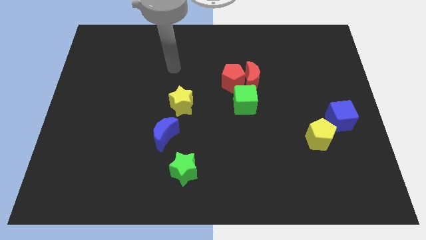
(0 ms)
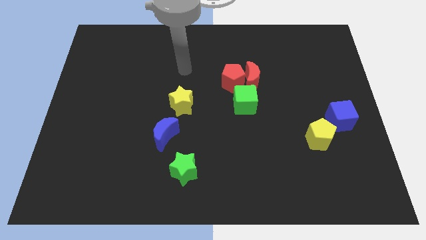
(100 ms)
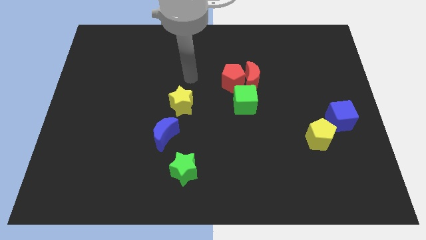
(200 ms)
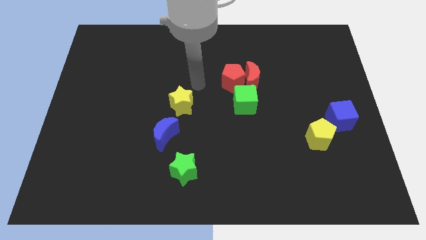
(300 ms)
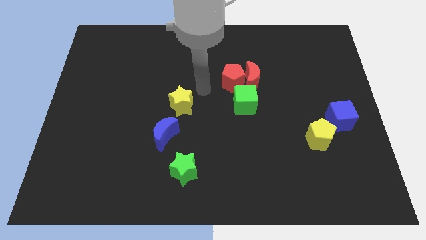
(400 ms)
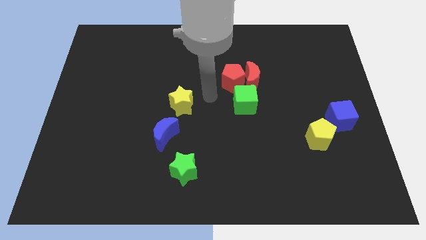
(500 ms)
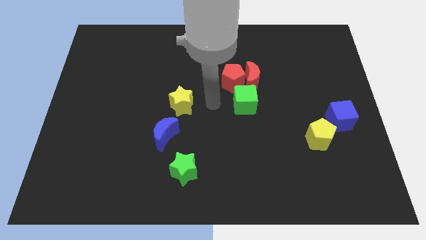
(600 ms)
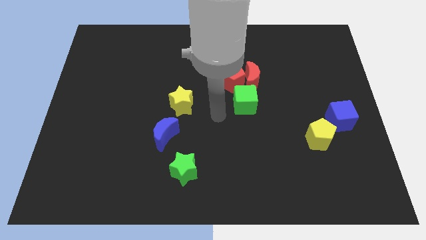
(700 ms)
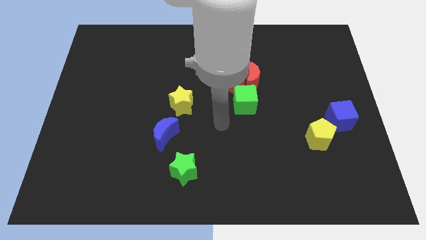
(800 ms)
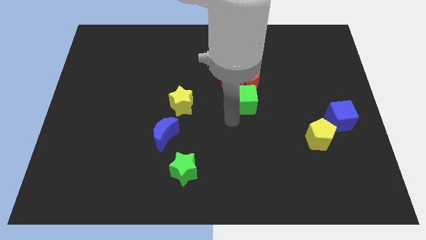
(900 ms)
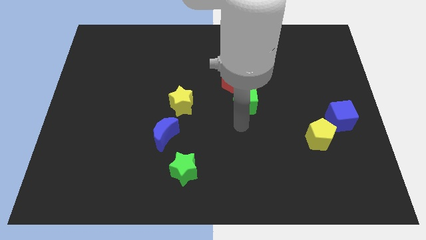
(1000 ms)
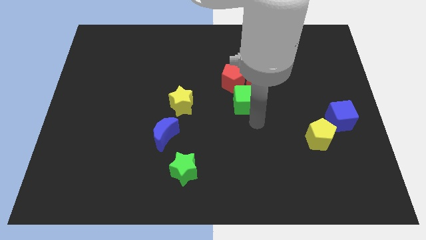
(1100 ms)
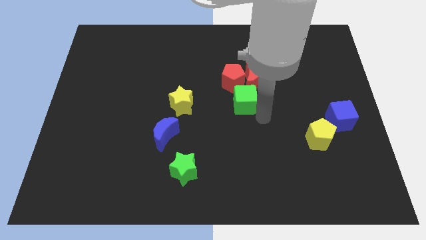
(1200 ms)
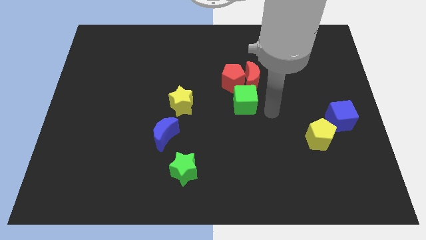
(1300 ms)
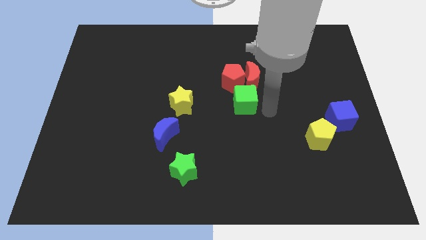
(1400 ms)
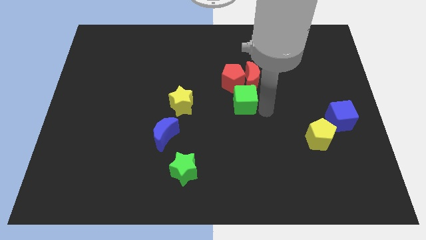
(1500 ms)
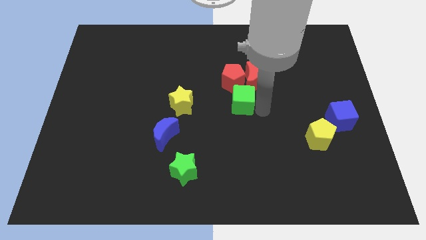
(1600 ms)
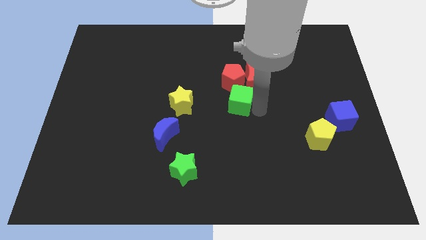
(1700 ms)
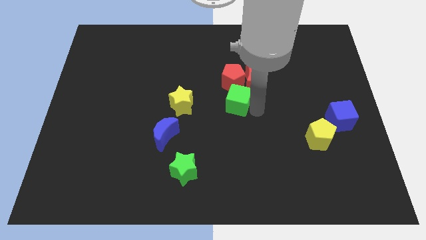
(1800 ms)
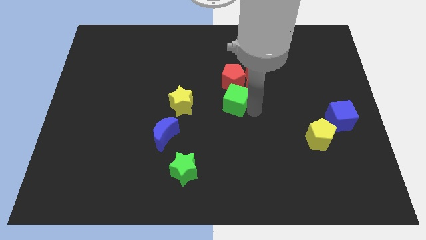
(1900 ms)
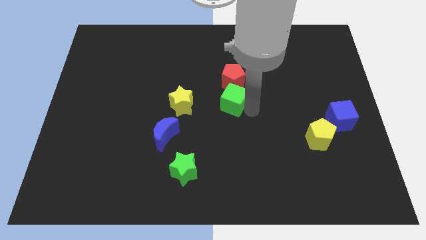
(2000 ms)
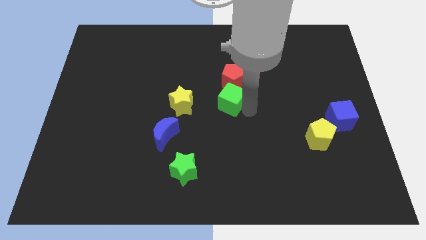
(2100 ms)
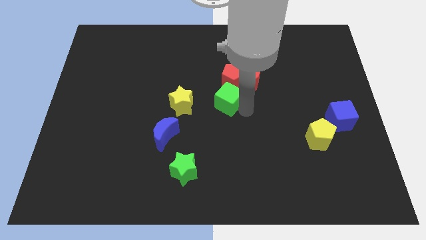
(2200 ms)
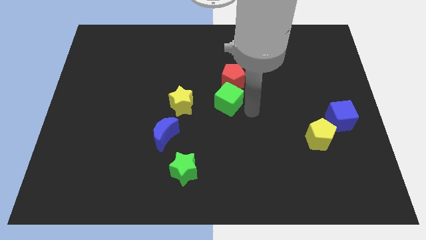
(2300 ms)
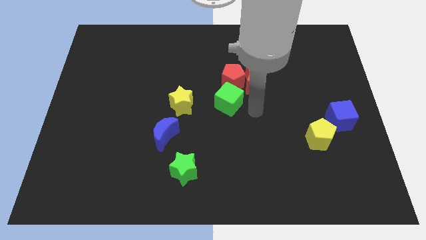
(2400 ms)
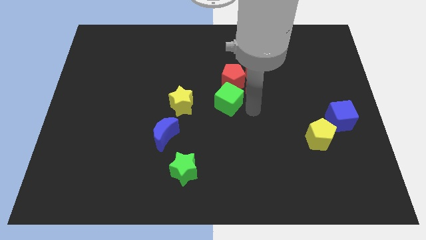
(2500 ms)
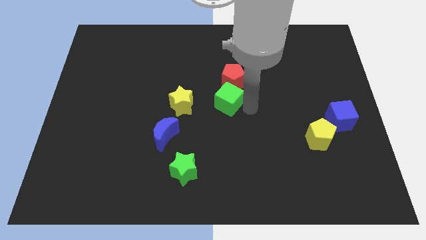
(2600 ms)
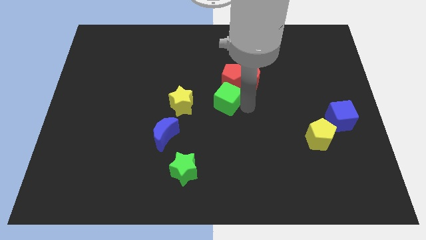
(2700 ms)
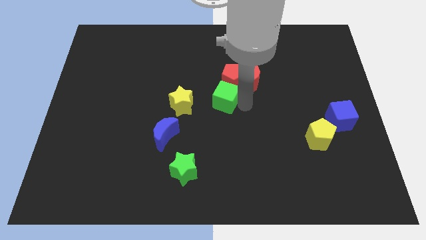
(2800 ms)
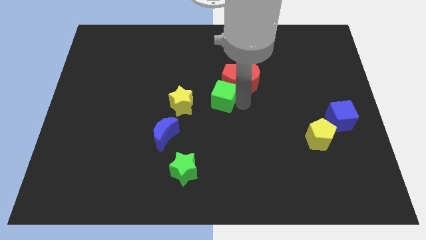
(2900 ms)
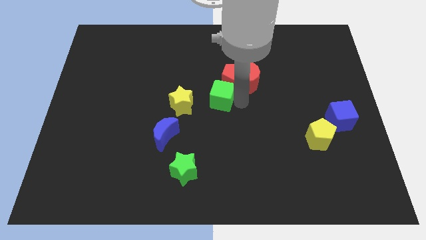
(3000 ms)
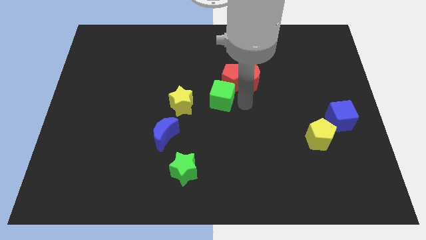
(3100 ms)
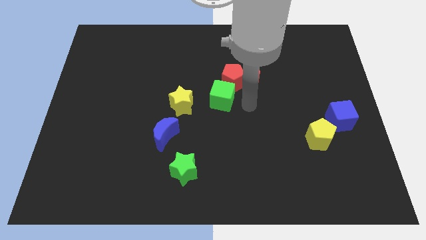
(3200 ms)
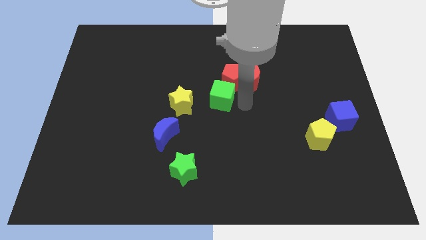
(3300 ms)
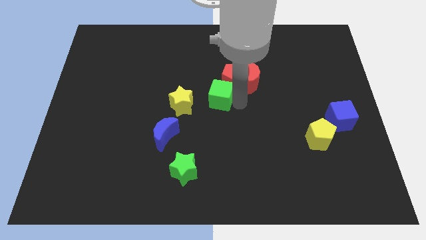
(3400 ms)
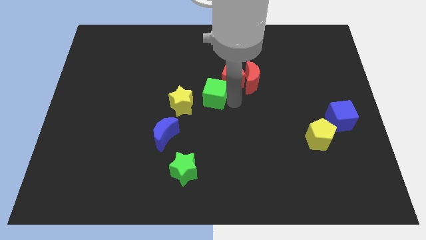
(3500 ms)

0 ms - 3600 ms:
slightly move the green cube left

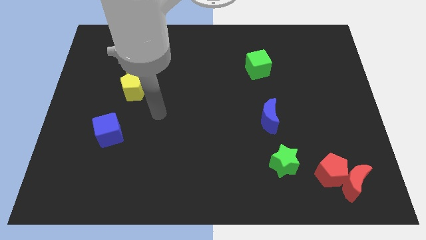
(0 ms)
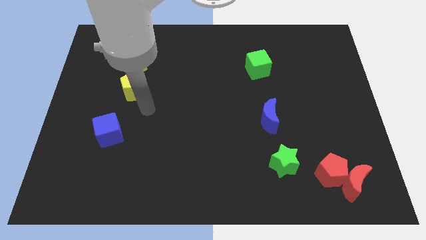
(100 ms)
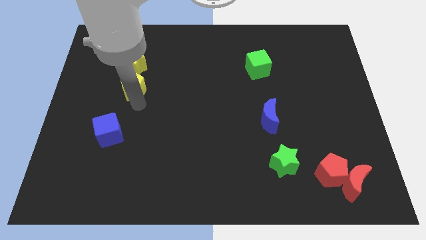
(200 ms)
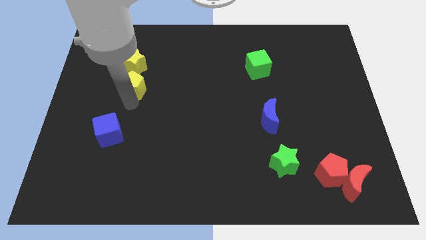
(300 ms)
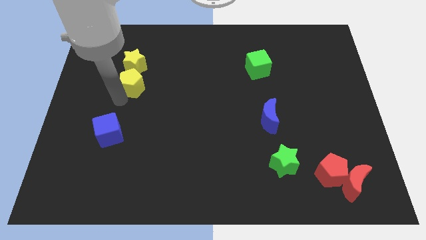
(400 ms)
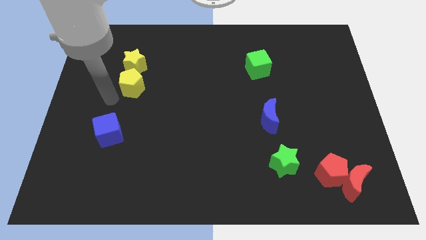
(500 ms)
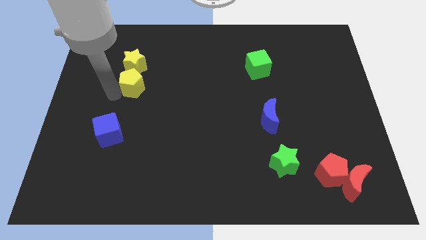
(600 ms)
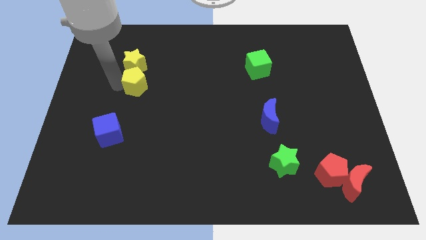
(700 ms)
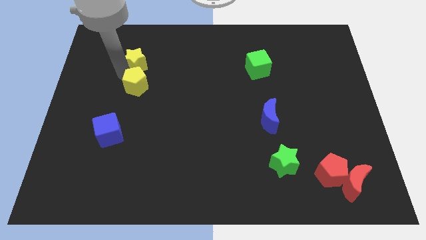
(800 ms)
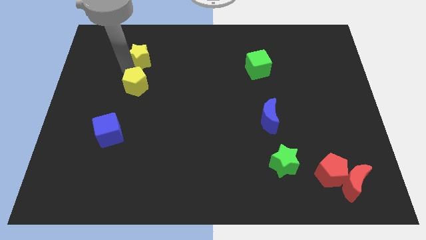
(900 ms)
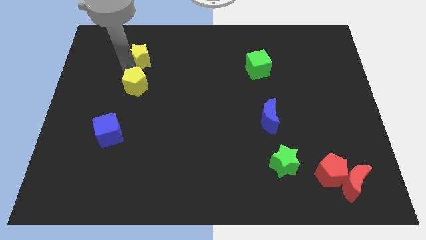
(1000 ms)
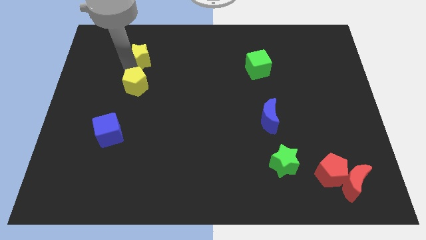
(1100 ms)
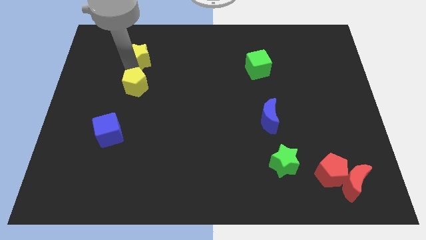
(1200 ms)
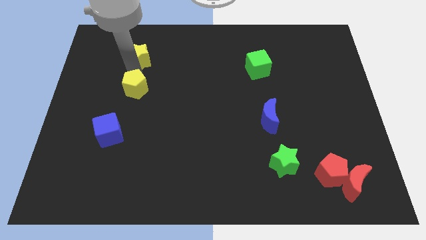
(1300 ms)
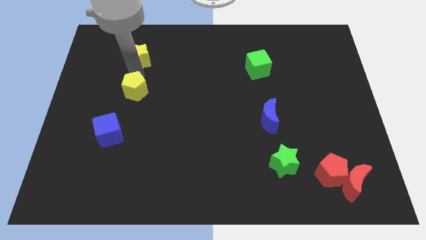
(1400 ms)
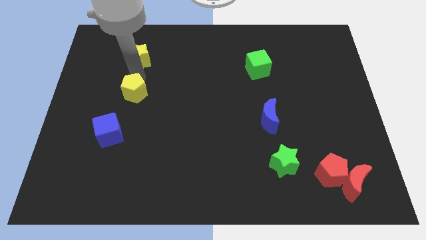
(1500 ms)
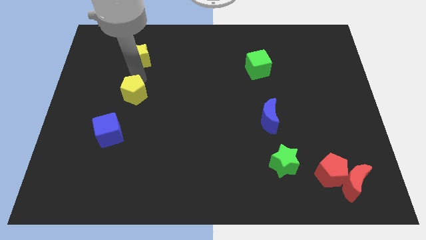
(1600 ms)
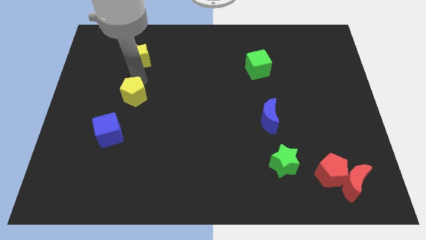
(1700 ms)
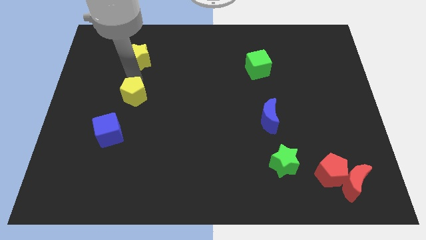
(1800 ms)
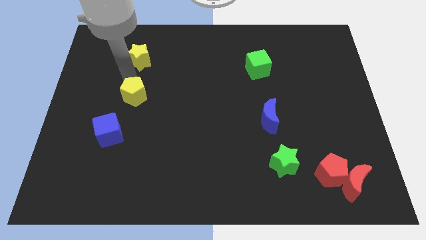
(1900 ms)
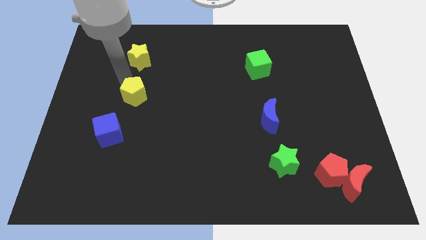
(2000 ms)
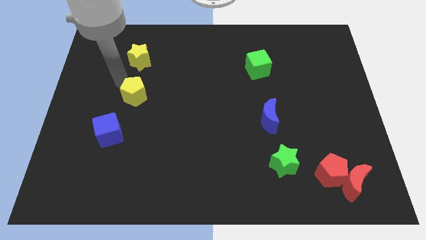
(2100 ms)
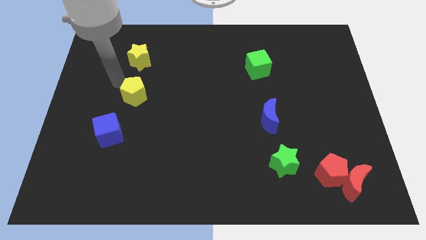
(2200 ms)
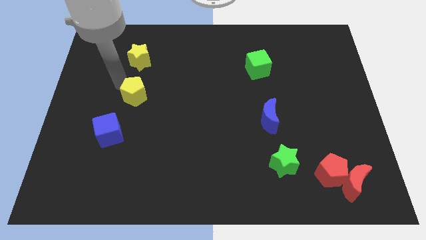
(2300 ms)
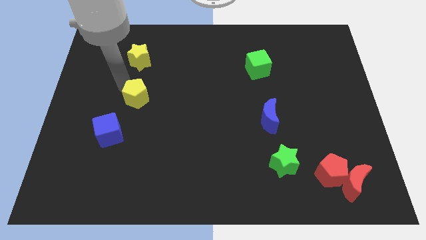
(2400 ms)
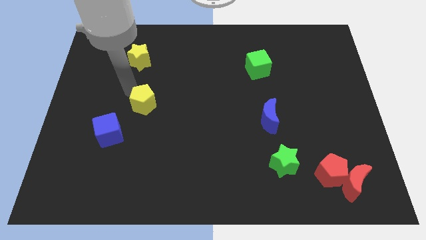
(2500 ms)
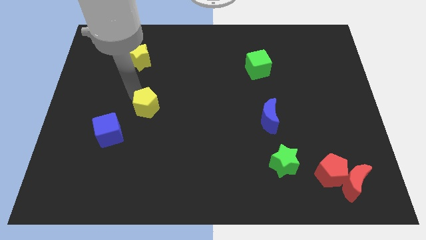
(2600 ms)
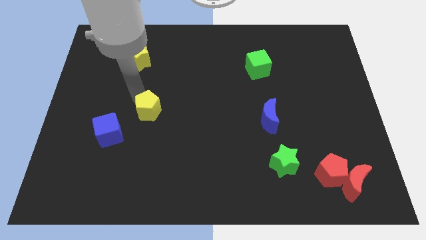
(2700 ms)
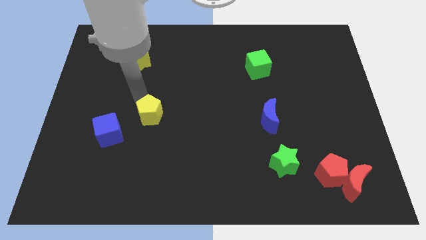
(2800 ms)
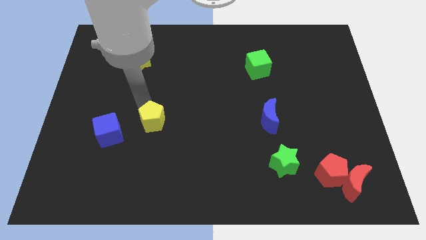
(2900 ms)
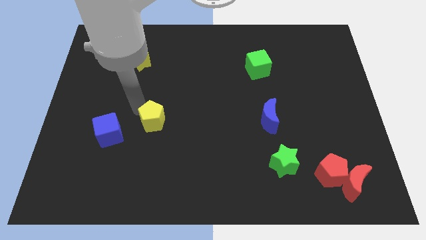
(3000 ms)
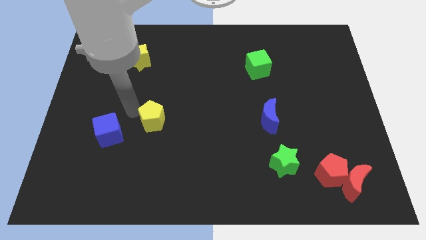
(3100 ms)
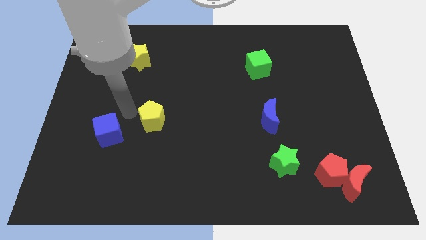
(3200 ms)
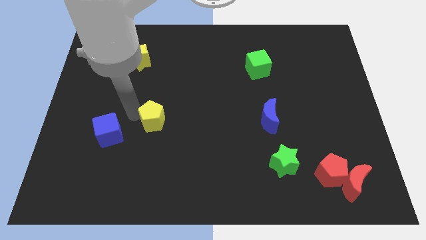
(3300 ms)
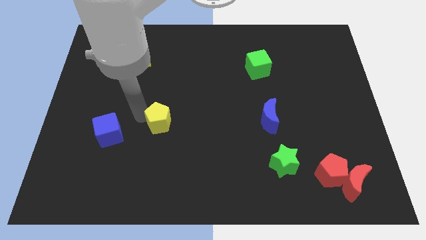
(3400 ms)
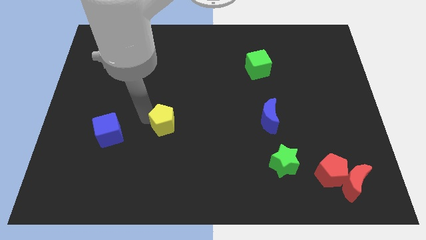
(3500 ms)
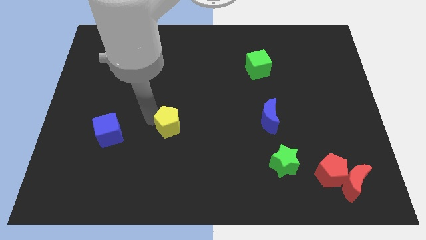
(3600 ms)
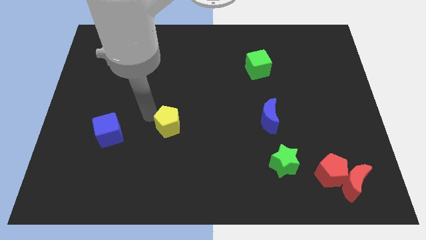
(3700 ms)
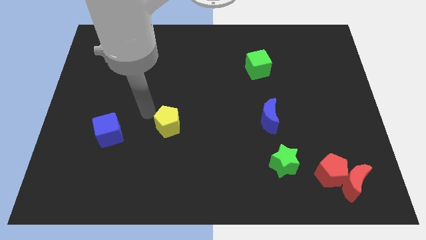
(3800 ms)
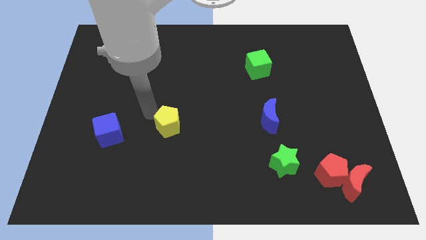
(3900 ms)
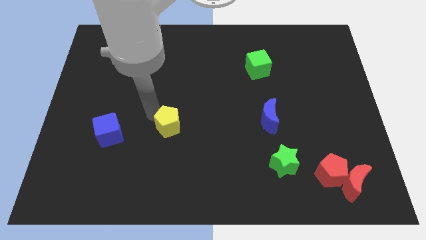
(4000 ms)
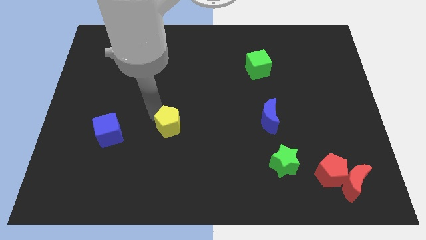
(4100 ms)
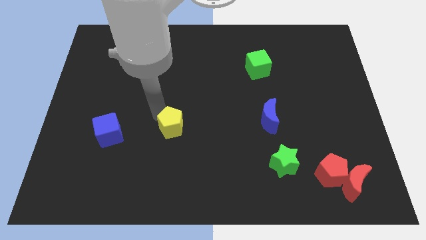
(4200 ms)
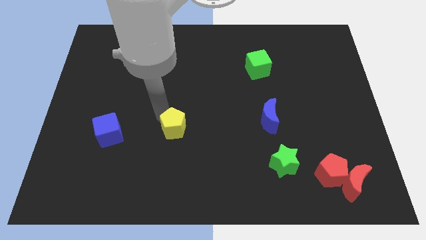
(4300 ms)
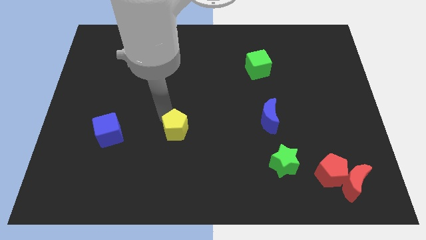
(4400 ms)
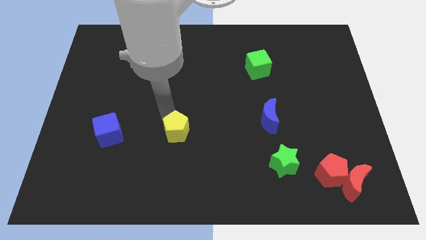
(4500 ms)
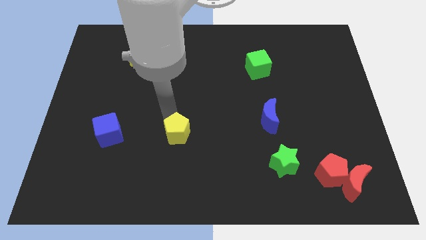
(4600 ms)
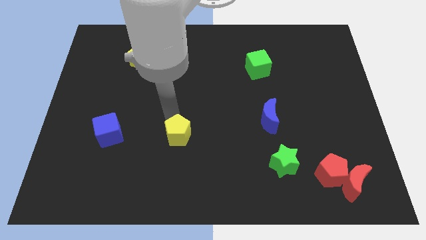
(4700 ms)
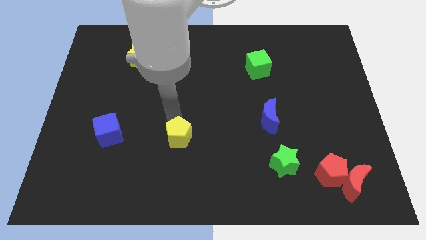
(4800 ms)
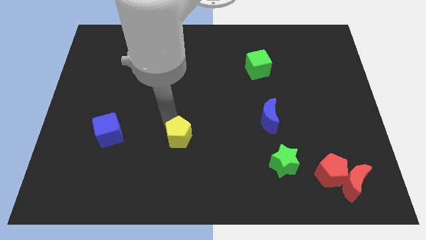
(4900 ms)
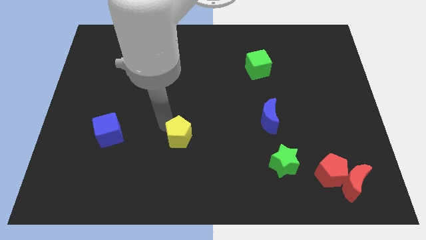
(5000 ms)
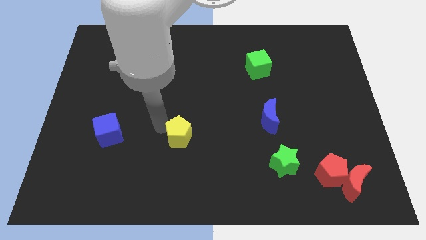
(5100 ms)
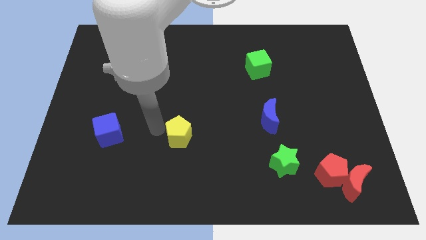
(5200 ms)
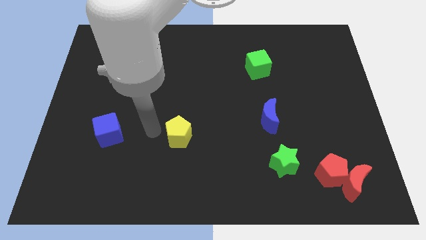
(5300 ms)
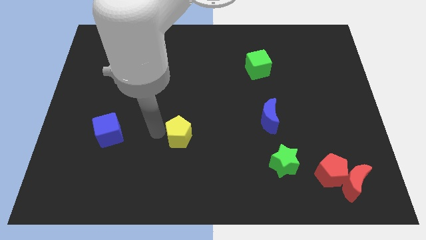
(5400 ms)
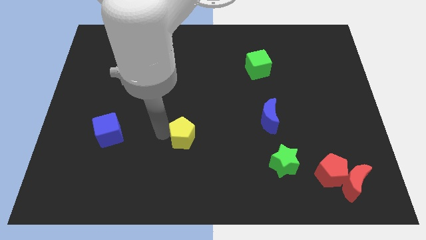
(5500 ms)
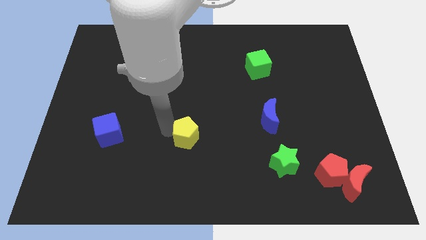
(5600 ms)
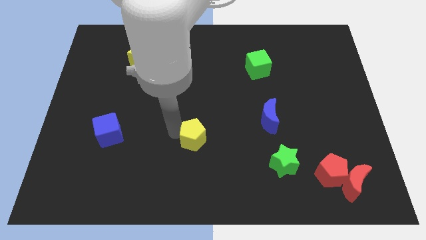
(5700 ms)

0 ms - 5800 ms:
move the yellow pentagon diagonally downwards and right
